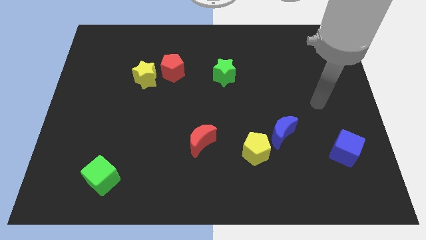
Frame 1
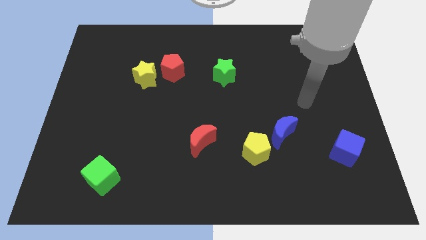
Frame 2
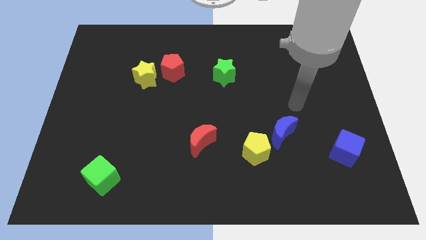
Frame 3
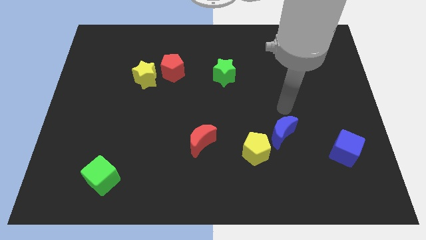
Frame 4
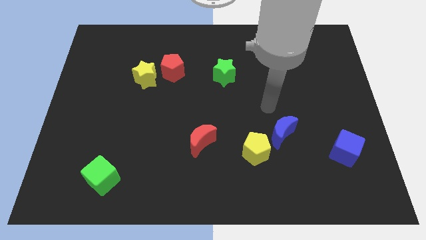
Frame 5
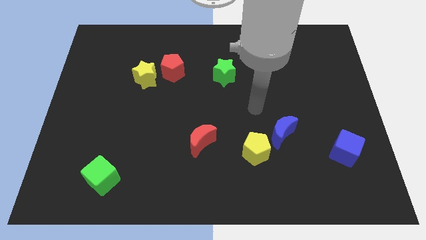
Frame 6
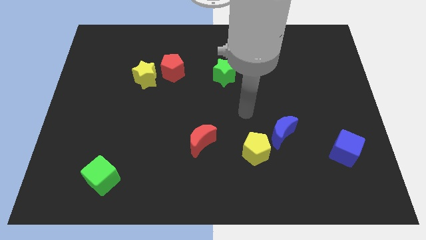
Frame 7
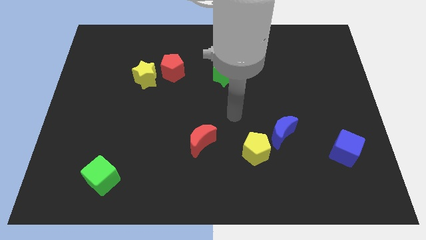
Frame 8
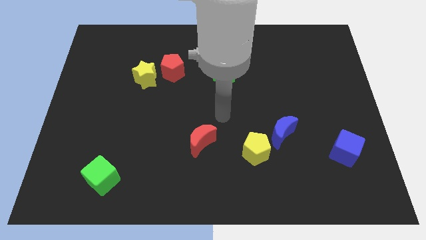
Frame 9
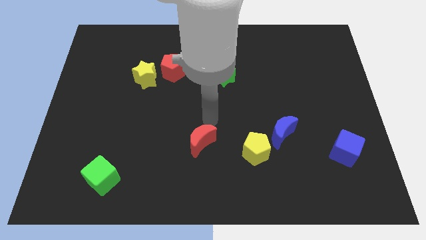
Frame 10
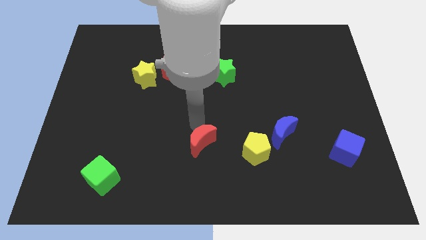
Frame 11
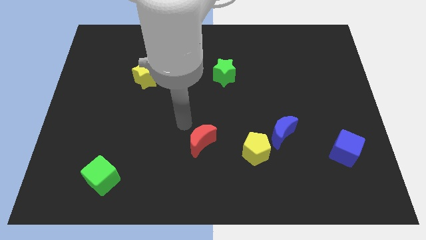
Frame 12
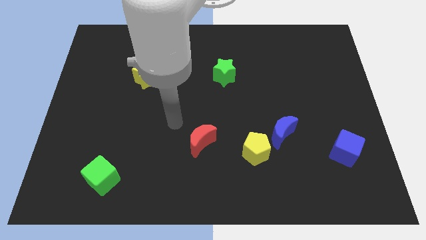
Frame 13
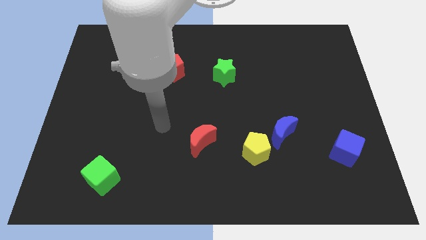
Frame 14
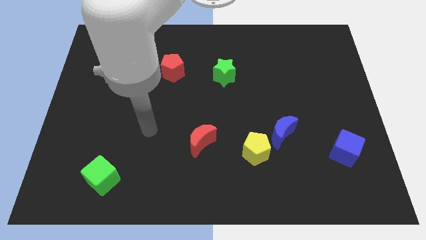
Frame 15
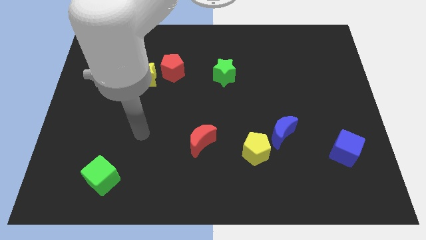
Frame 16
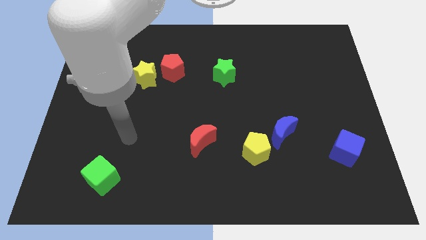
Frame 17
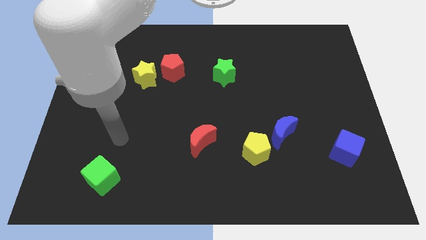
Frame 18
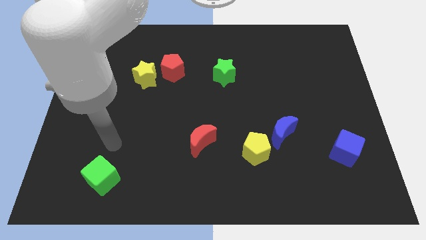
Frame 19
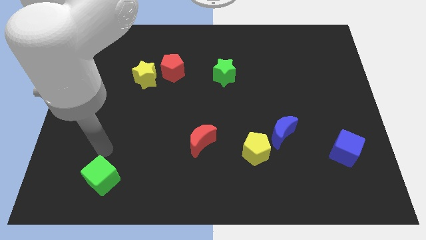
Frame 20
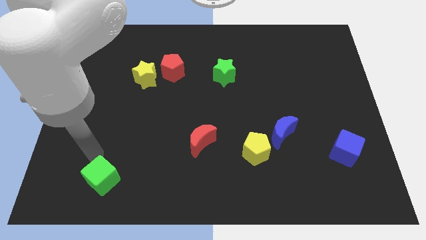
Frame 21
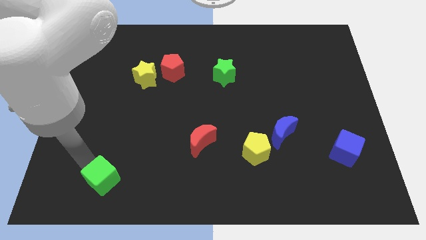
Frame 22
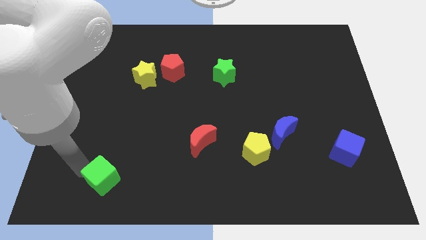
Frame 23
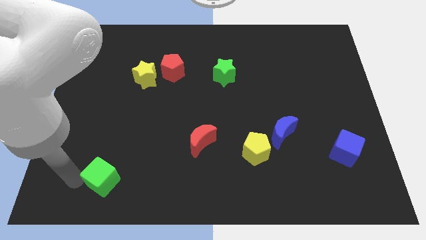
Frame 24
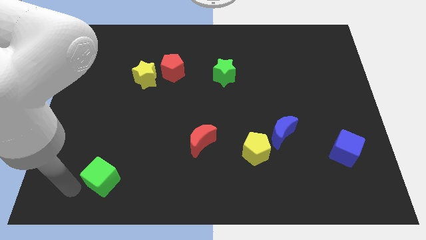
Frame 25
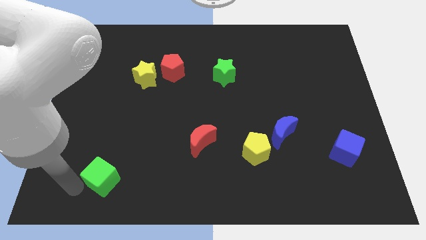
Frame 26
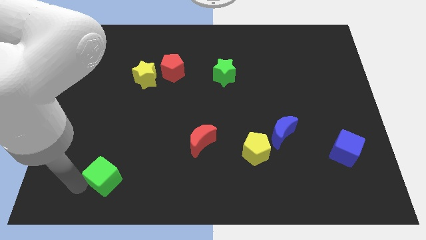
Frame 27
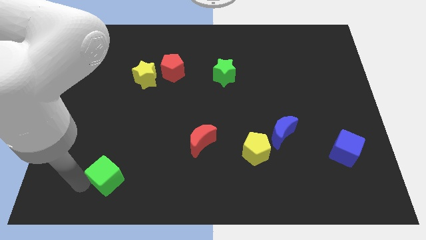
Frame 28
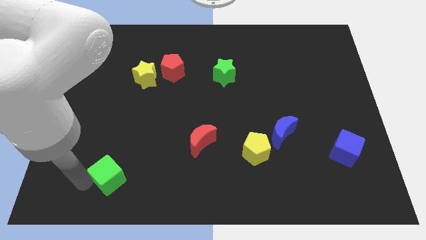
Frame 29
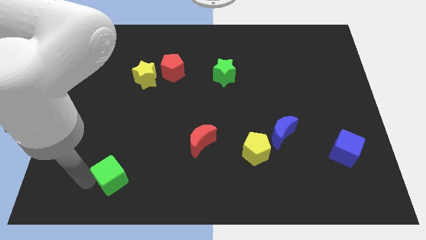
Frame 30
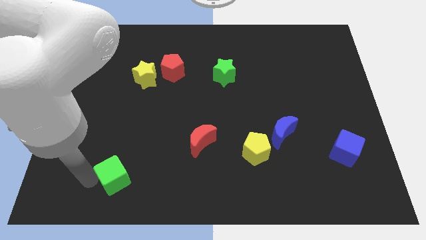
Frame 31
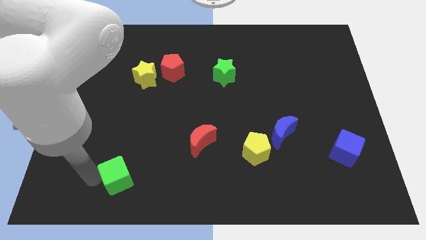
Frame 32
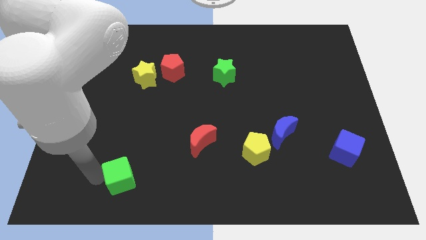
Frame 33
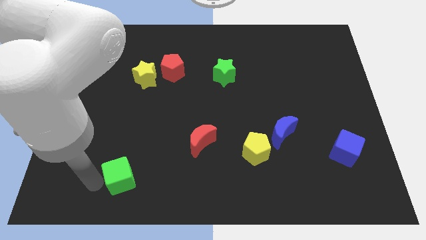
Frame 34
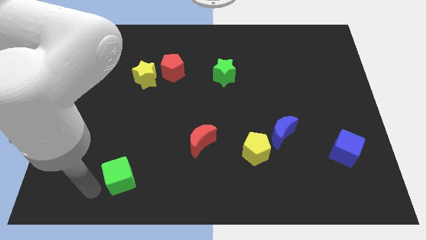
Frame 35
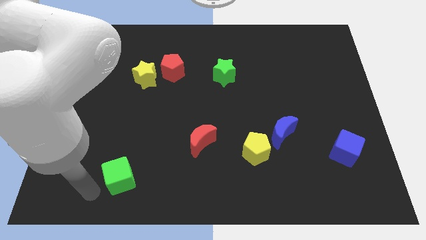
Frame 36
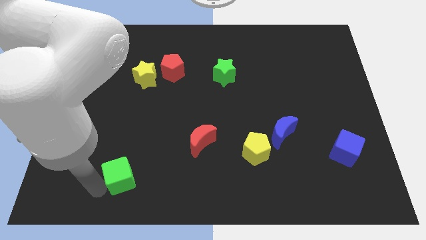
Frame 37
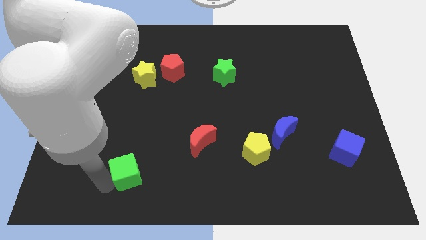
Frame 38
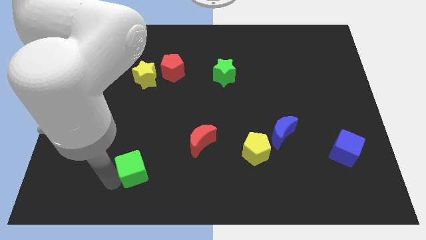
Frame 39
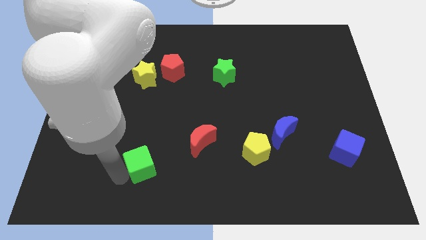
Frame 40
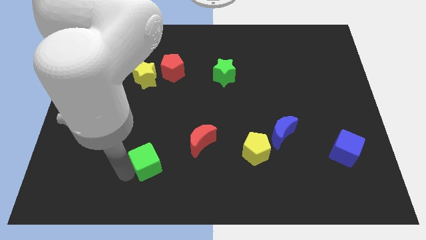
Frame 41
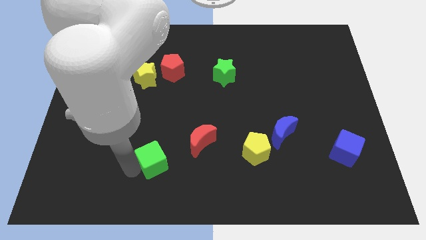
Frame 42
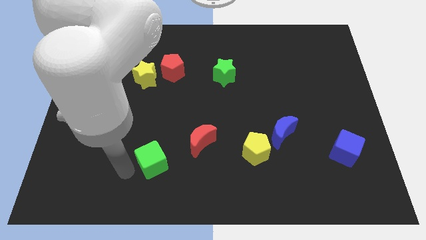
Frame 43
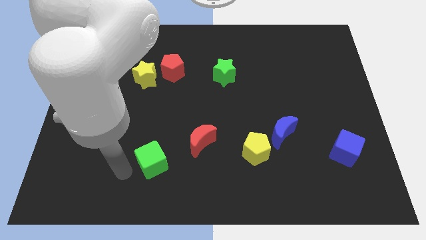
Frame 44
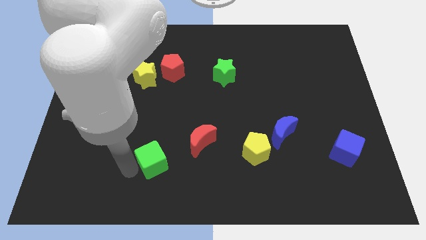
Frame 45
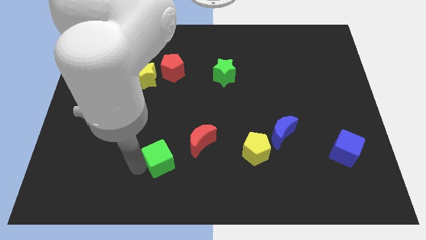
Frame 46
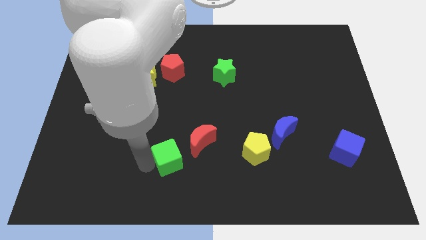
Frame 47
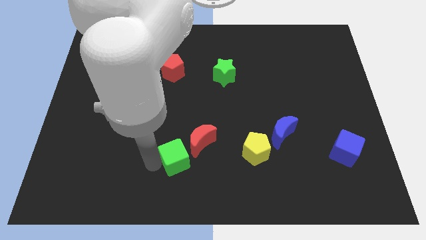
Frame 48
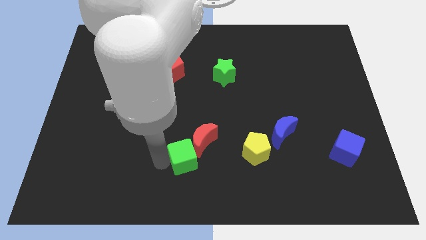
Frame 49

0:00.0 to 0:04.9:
slide the green cube left of the yellow pentagon

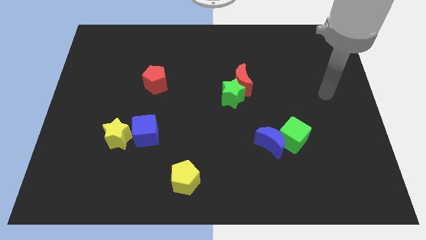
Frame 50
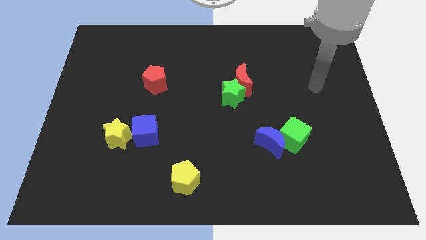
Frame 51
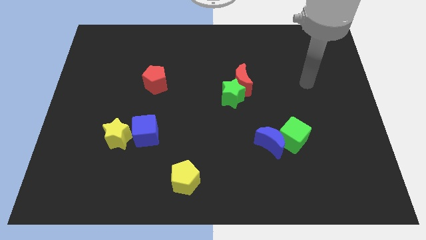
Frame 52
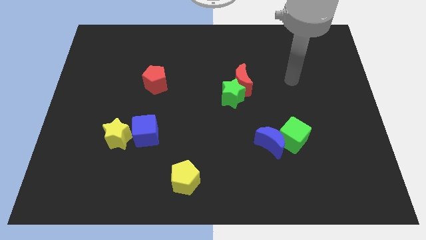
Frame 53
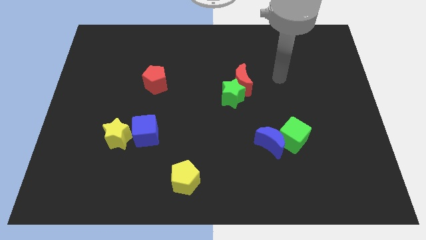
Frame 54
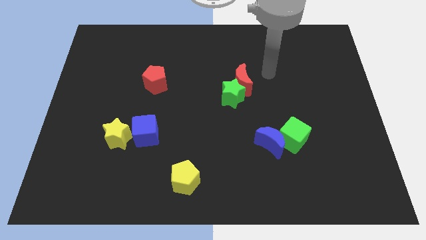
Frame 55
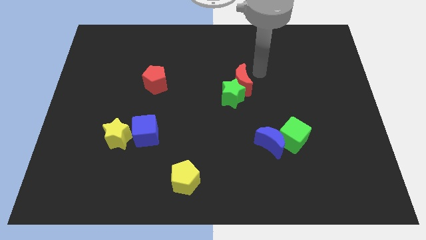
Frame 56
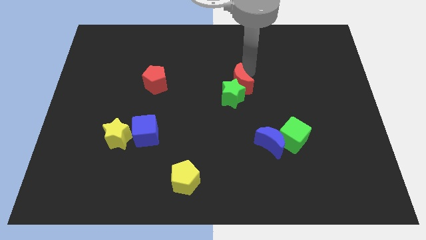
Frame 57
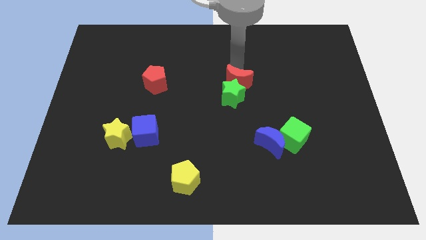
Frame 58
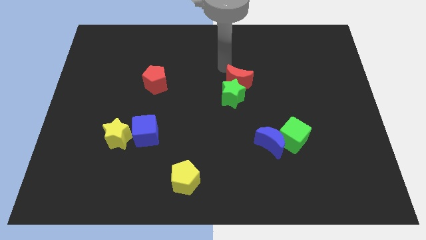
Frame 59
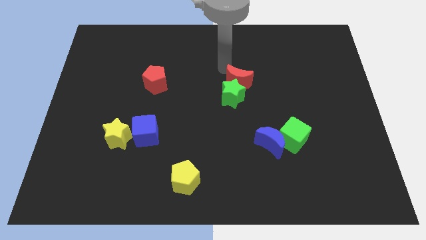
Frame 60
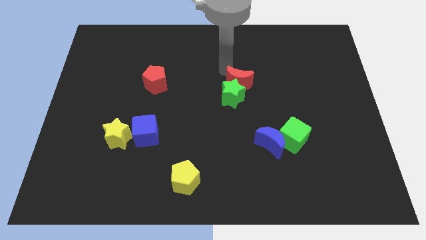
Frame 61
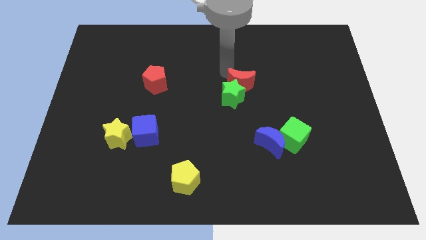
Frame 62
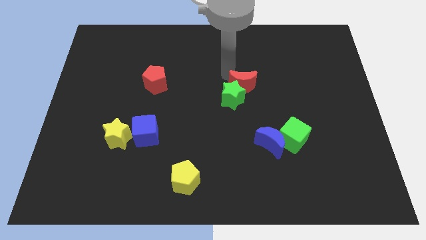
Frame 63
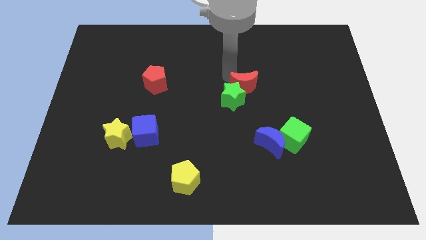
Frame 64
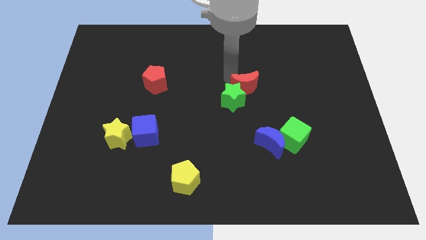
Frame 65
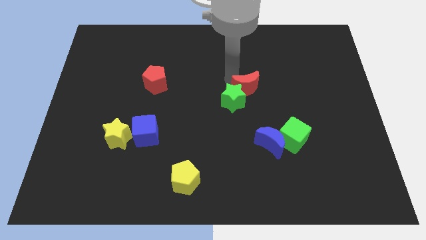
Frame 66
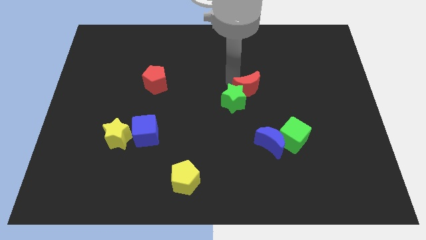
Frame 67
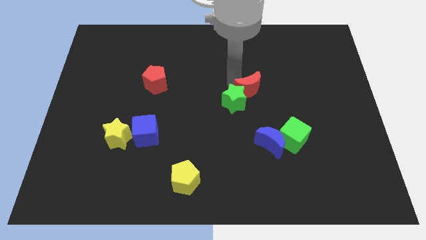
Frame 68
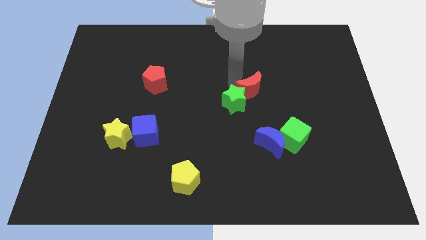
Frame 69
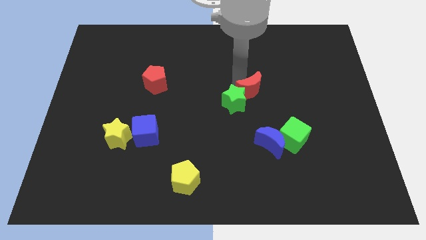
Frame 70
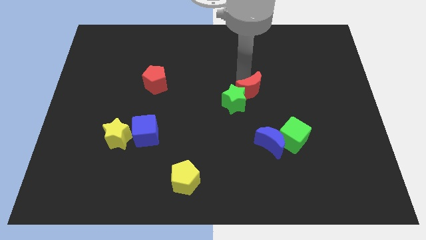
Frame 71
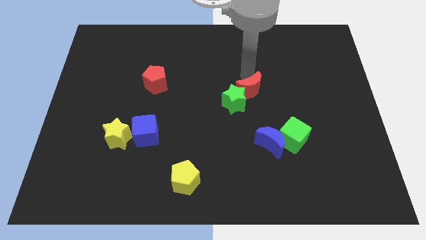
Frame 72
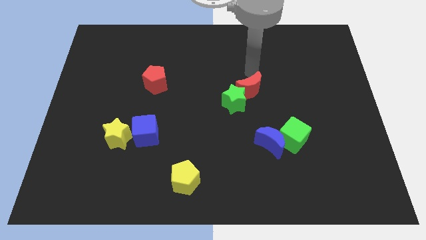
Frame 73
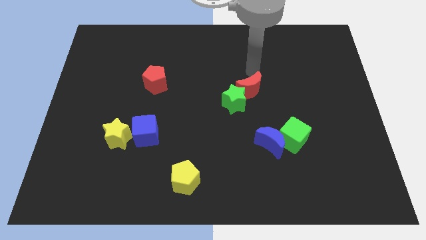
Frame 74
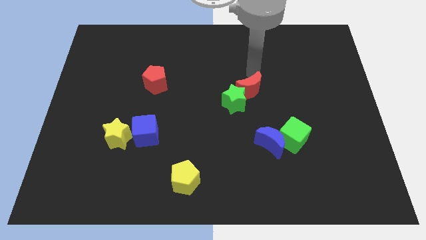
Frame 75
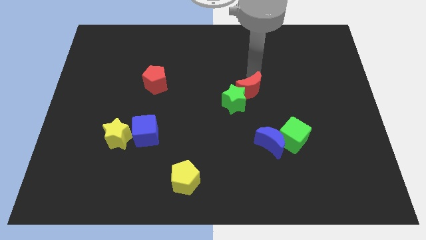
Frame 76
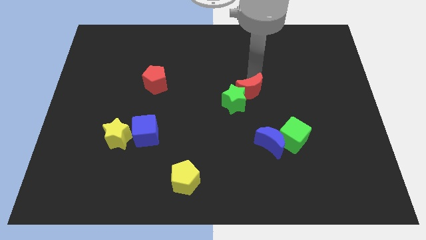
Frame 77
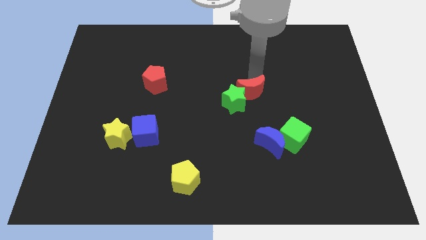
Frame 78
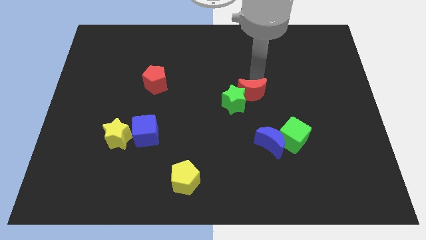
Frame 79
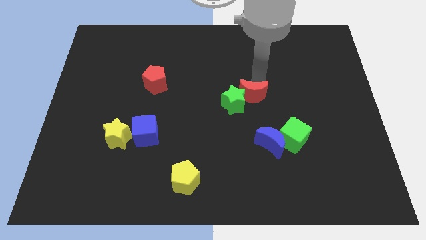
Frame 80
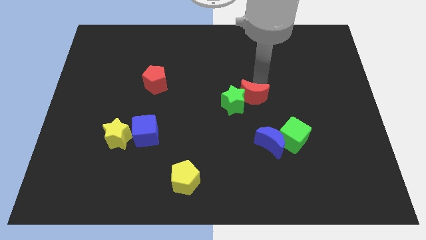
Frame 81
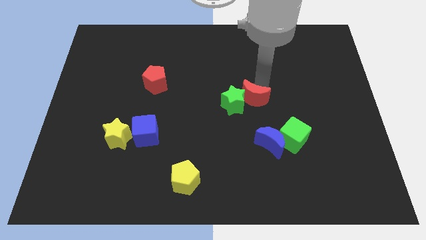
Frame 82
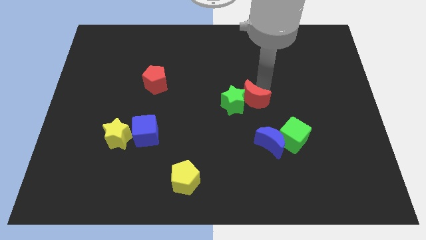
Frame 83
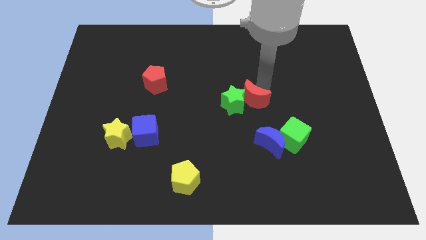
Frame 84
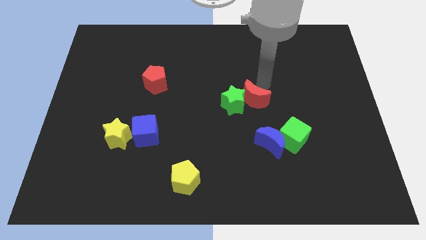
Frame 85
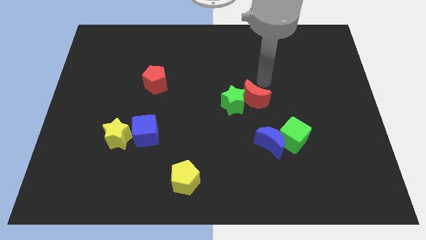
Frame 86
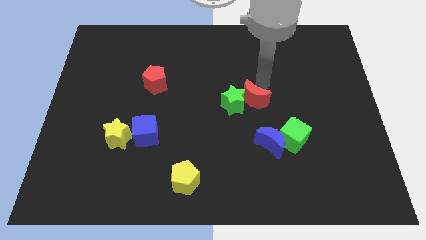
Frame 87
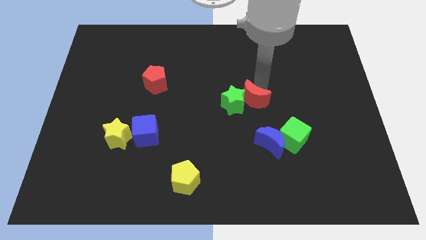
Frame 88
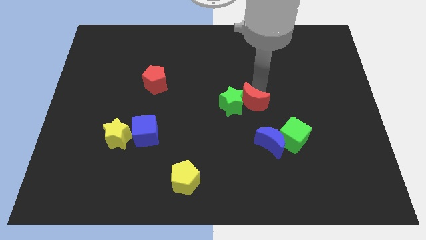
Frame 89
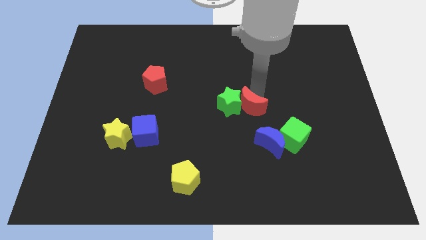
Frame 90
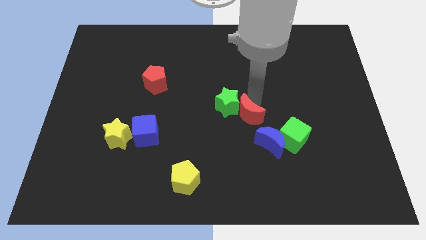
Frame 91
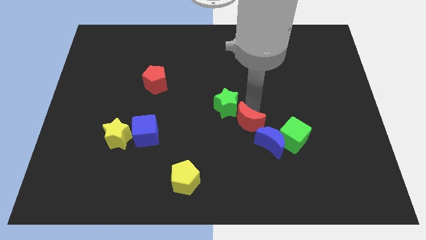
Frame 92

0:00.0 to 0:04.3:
push the red moon to the bottom side of the green star
